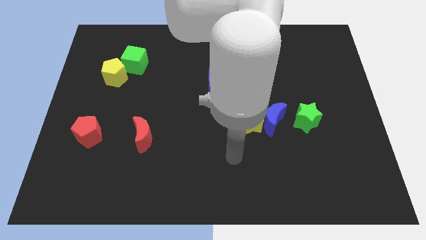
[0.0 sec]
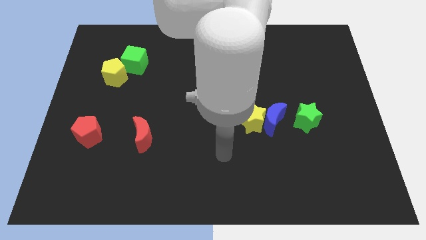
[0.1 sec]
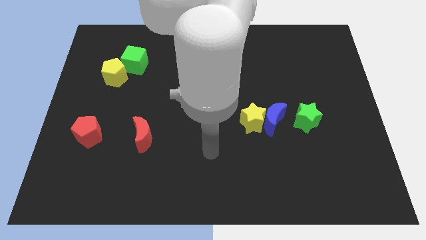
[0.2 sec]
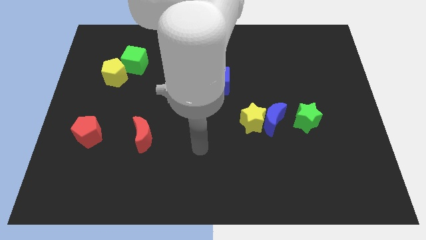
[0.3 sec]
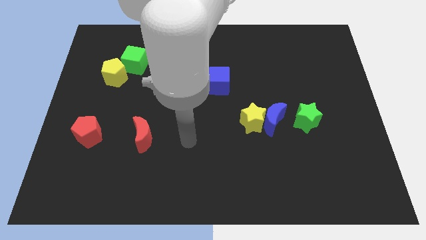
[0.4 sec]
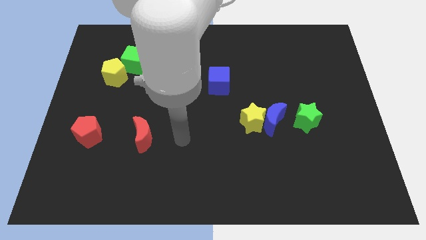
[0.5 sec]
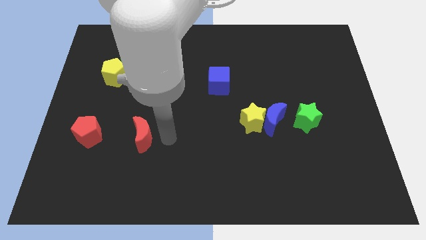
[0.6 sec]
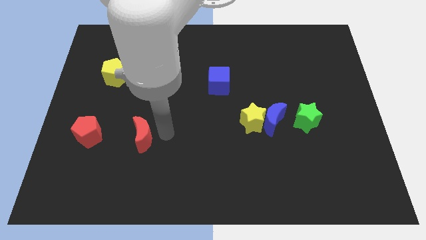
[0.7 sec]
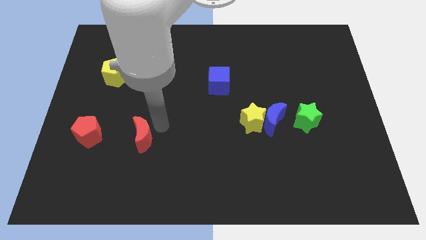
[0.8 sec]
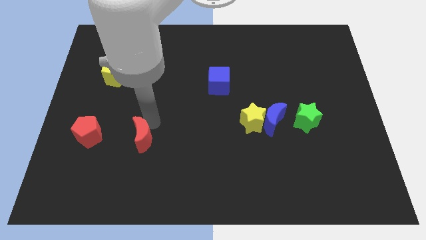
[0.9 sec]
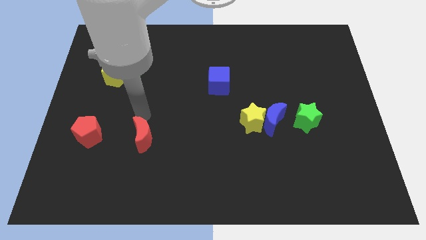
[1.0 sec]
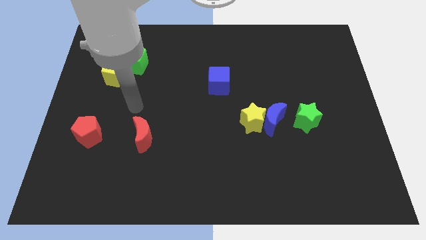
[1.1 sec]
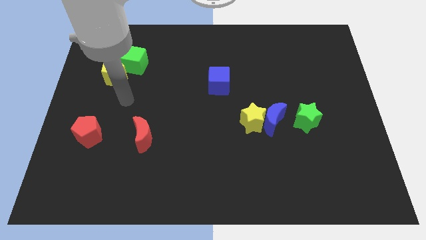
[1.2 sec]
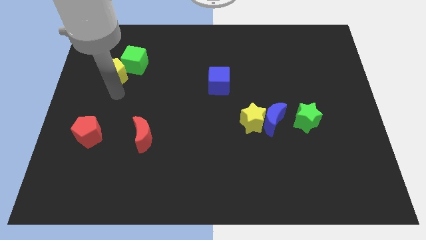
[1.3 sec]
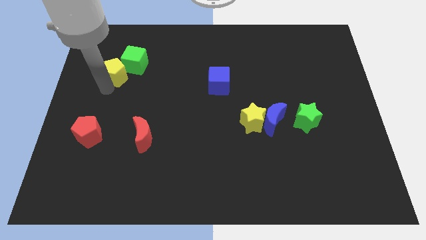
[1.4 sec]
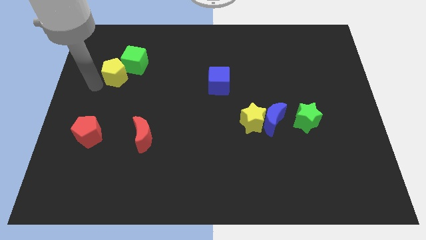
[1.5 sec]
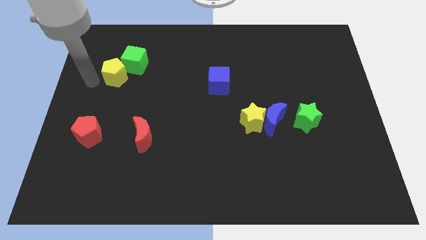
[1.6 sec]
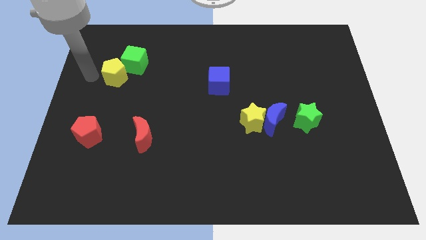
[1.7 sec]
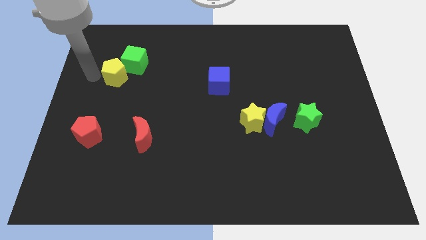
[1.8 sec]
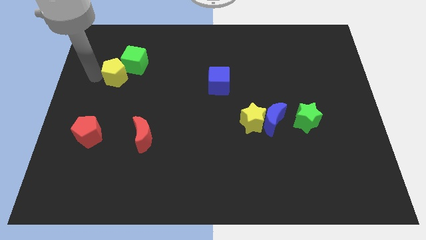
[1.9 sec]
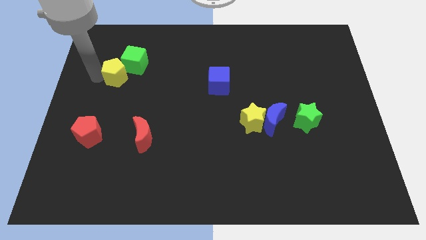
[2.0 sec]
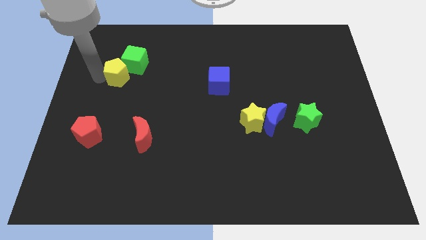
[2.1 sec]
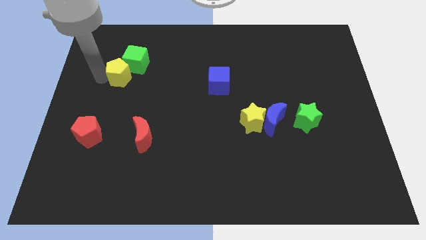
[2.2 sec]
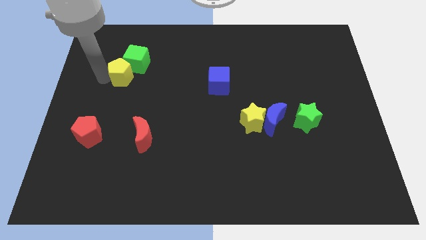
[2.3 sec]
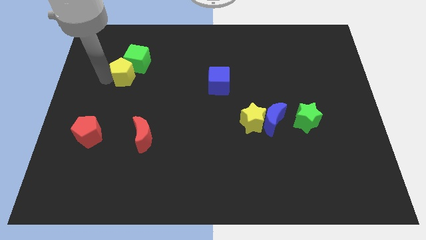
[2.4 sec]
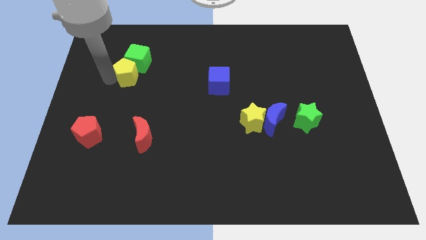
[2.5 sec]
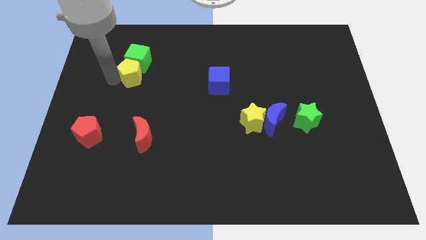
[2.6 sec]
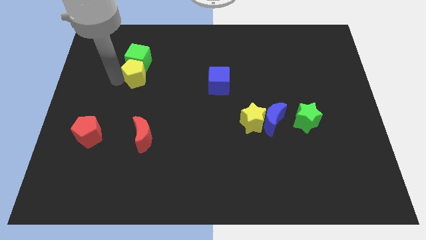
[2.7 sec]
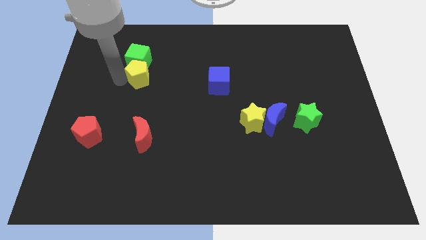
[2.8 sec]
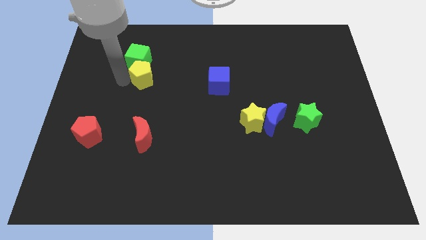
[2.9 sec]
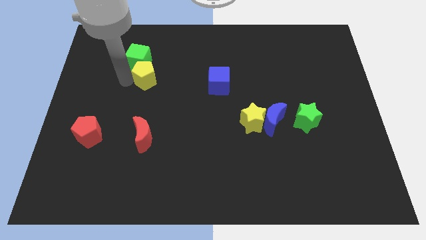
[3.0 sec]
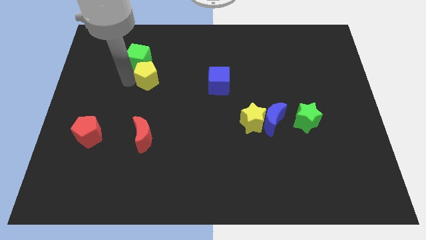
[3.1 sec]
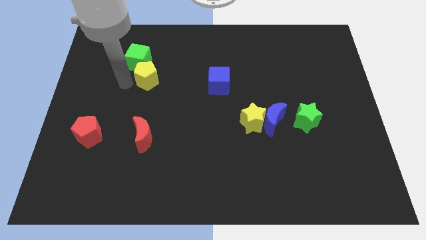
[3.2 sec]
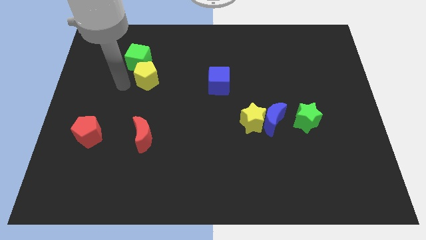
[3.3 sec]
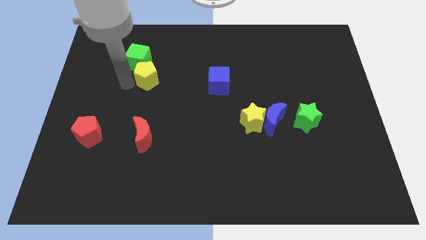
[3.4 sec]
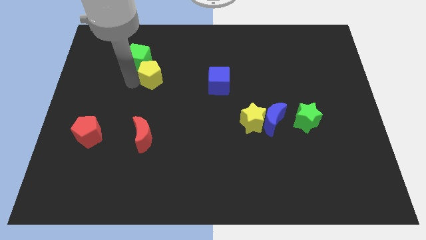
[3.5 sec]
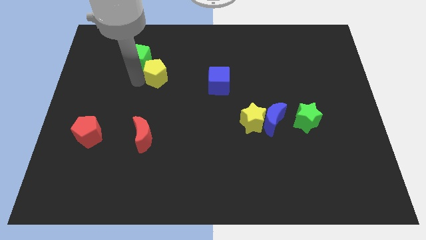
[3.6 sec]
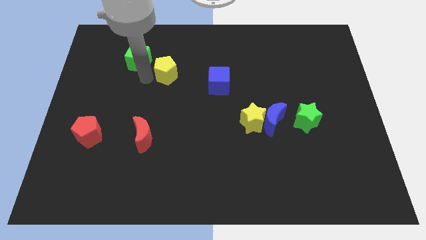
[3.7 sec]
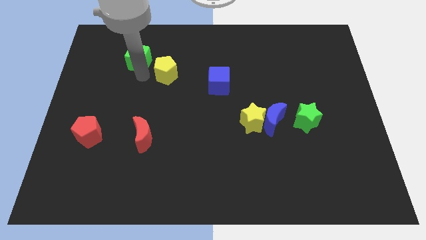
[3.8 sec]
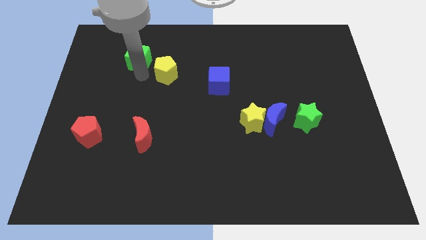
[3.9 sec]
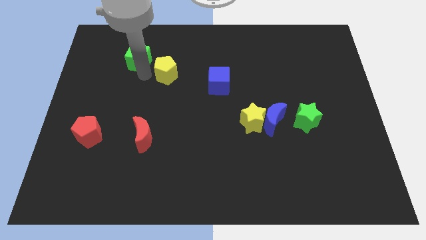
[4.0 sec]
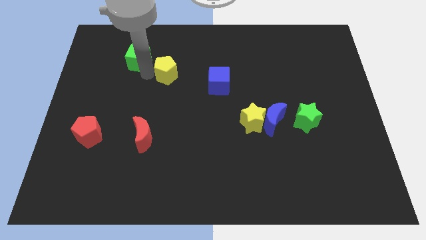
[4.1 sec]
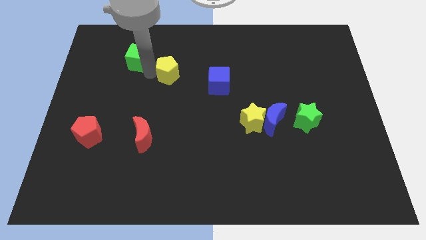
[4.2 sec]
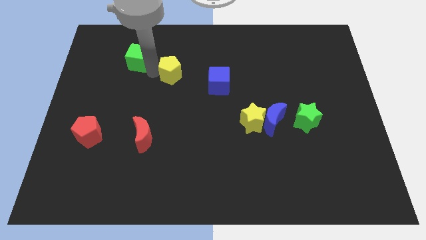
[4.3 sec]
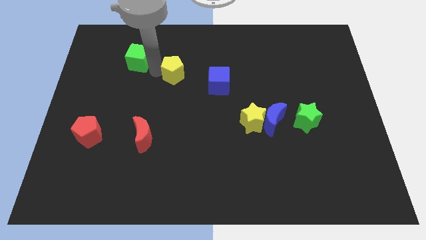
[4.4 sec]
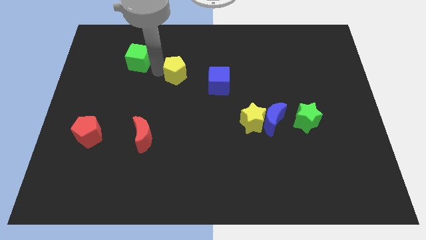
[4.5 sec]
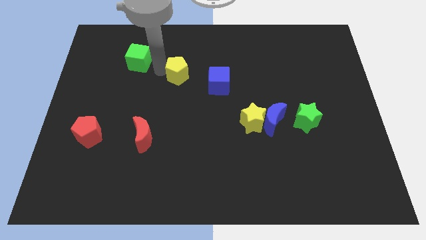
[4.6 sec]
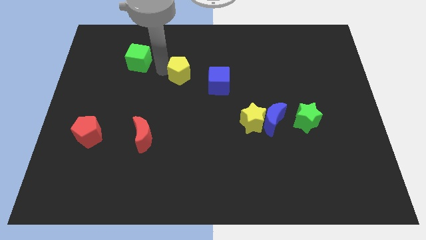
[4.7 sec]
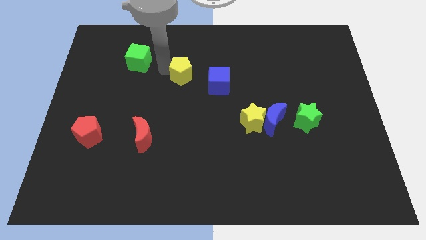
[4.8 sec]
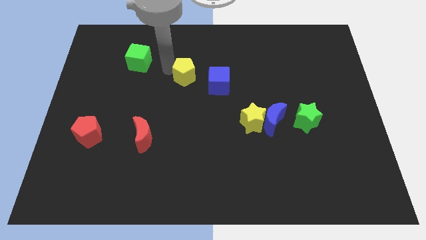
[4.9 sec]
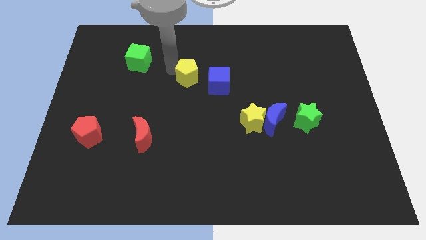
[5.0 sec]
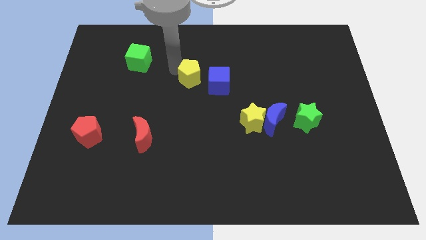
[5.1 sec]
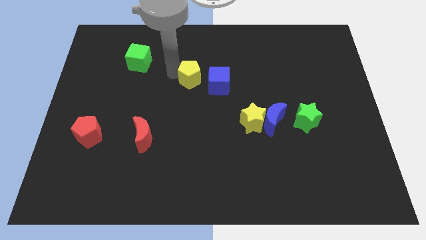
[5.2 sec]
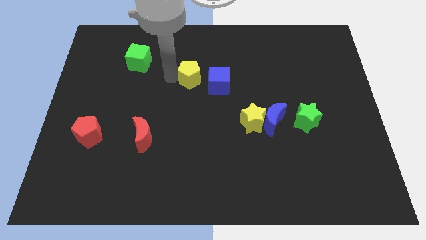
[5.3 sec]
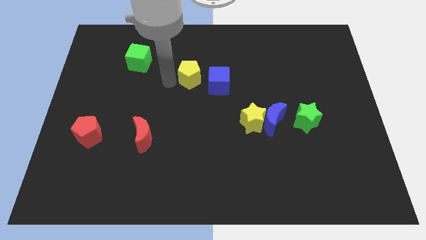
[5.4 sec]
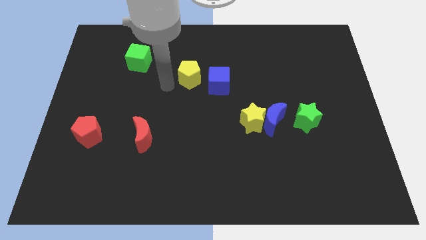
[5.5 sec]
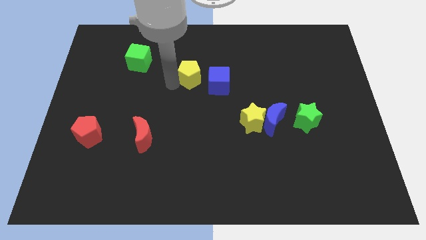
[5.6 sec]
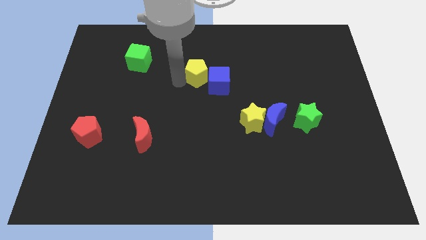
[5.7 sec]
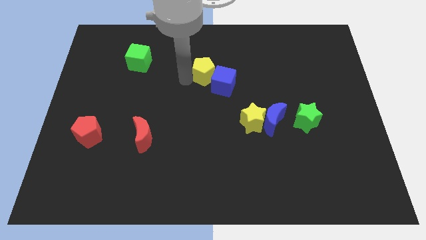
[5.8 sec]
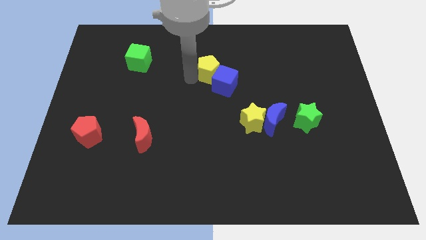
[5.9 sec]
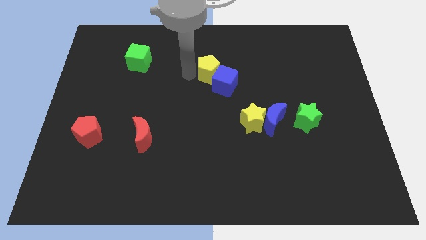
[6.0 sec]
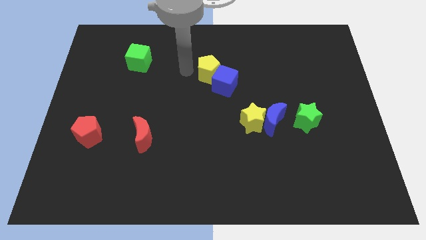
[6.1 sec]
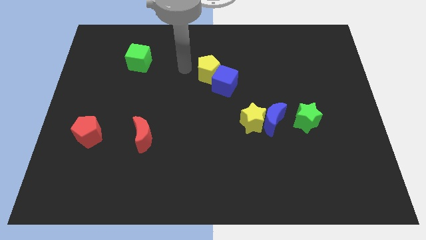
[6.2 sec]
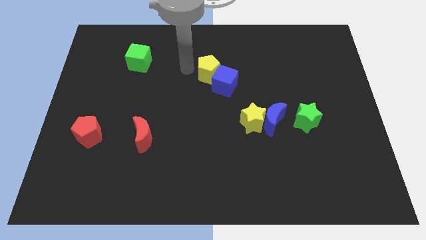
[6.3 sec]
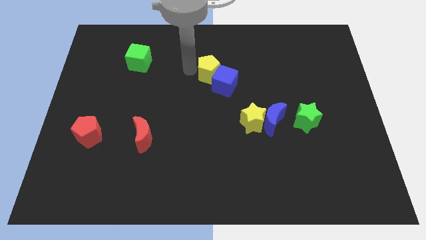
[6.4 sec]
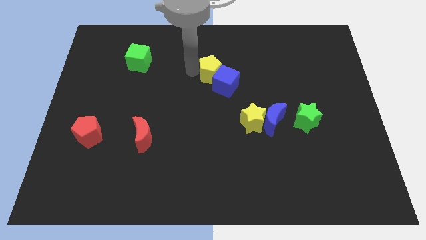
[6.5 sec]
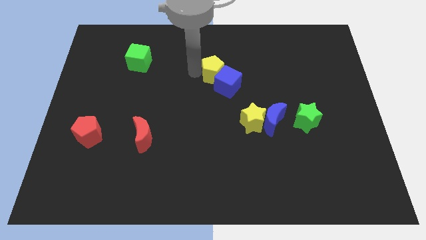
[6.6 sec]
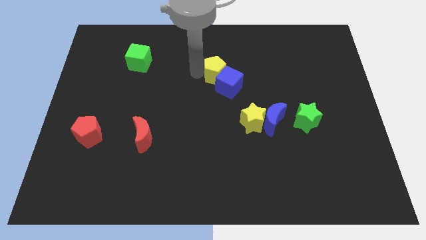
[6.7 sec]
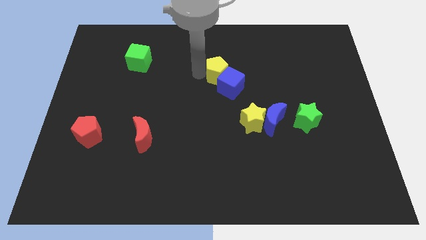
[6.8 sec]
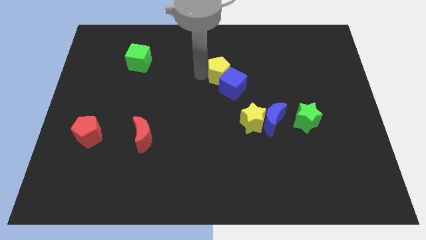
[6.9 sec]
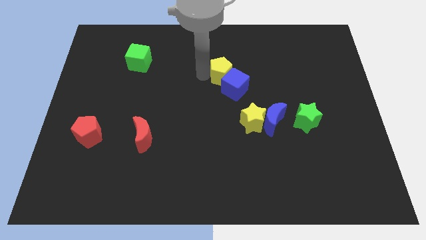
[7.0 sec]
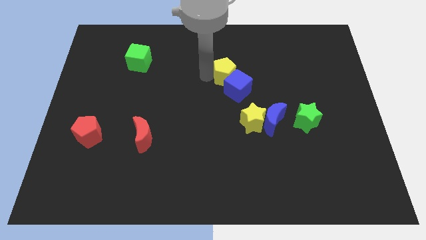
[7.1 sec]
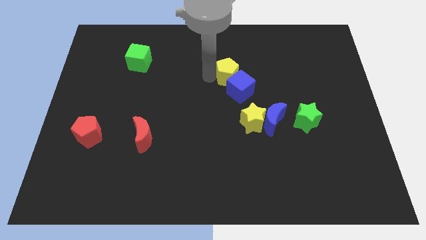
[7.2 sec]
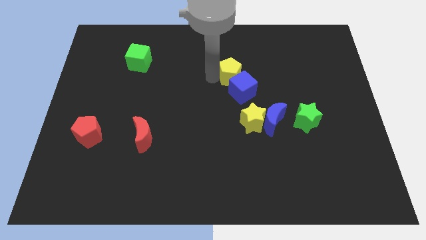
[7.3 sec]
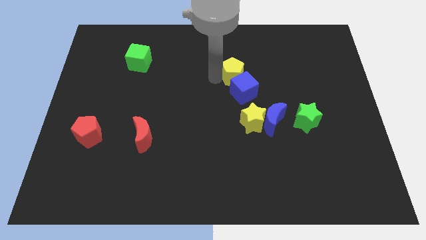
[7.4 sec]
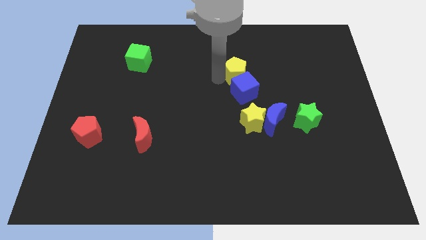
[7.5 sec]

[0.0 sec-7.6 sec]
slide the yellow pentagon to the top of the yellow star
